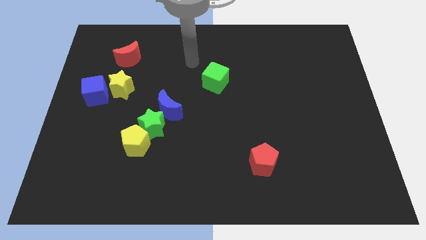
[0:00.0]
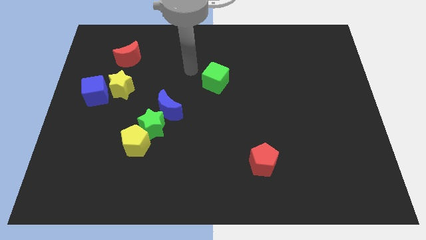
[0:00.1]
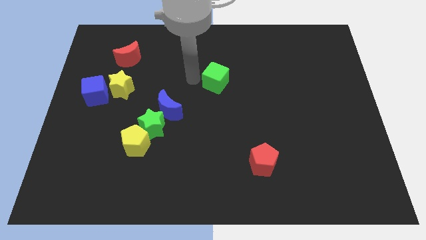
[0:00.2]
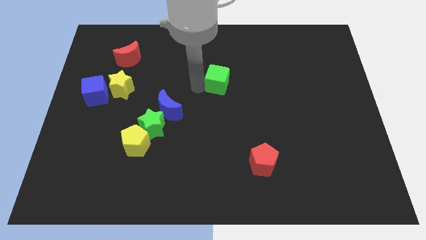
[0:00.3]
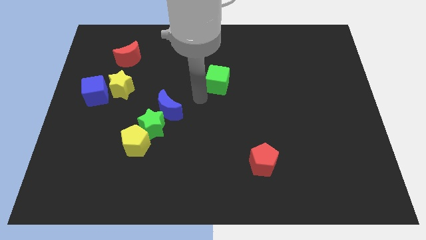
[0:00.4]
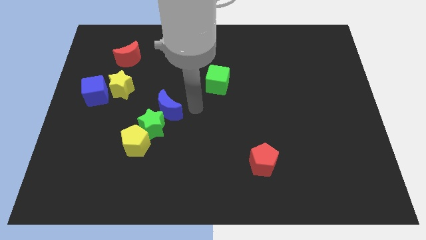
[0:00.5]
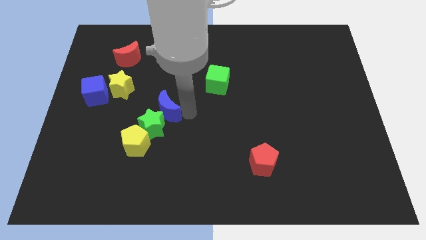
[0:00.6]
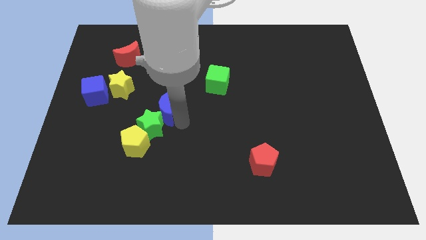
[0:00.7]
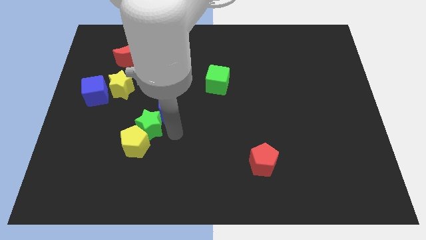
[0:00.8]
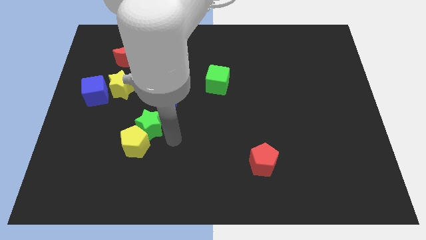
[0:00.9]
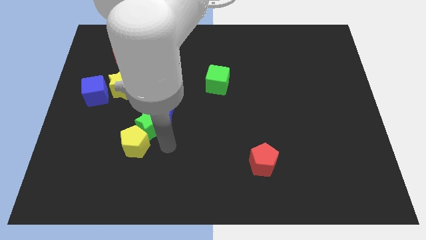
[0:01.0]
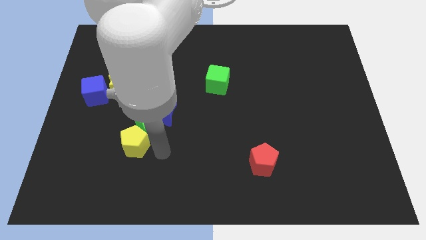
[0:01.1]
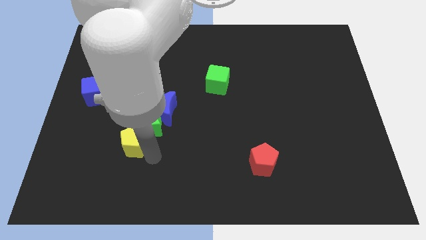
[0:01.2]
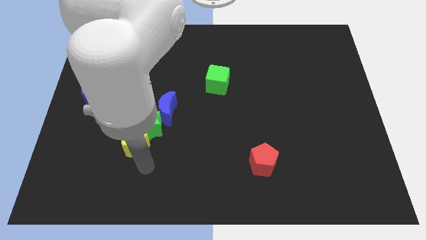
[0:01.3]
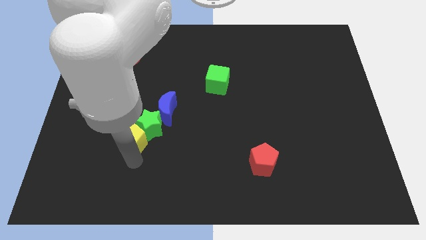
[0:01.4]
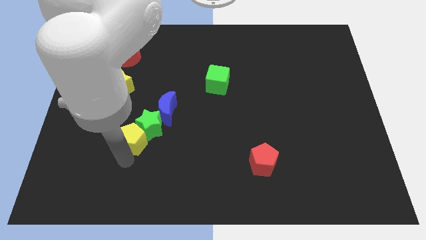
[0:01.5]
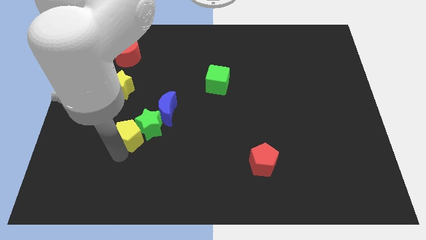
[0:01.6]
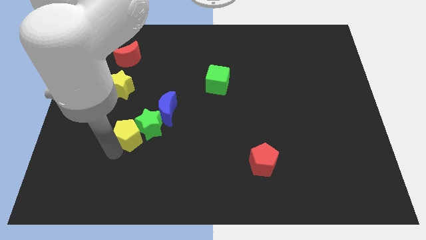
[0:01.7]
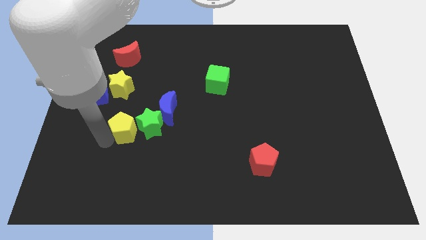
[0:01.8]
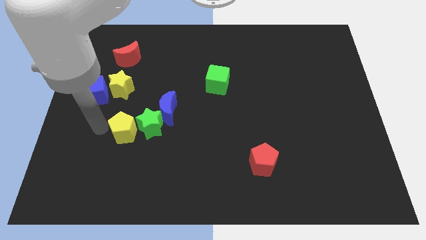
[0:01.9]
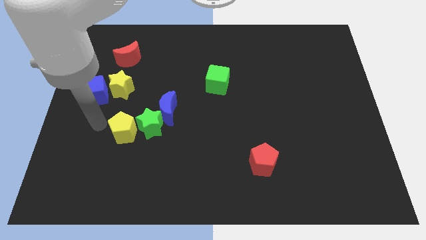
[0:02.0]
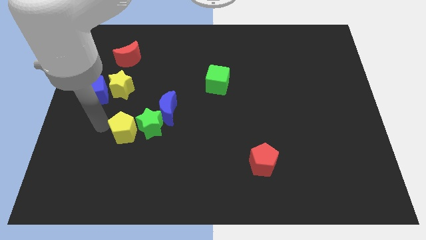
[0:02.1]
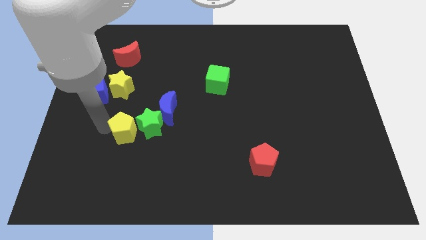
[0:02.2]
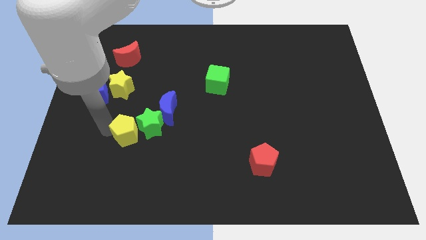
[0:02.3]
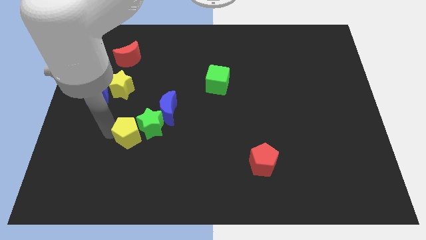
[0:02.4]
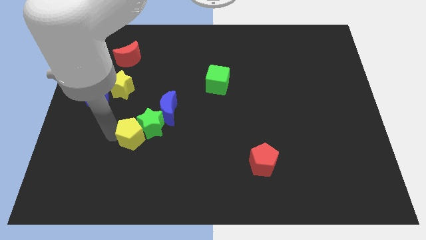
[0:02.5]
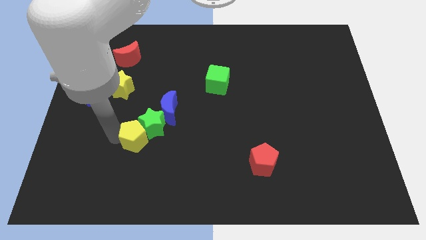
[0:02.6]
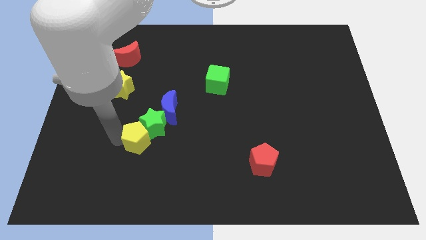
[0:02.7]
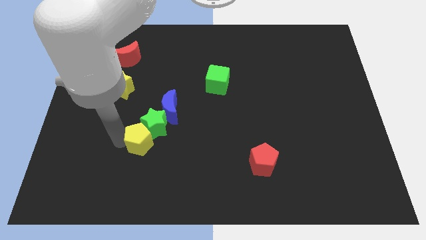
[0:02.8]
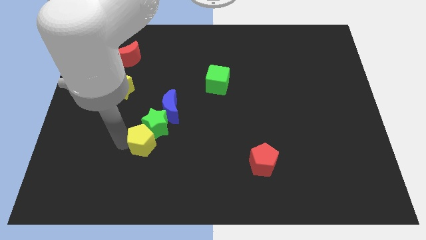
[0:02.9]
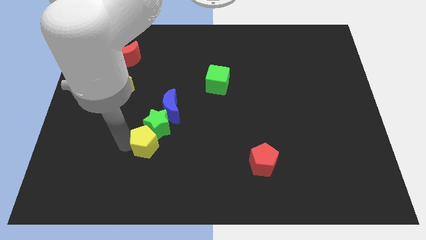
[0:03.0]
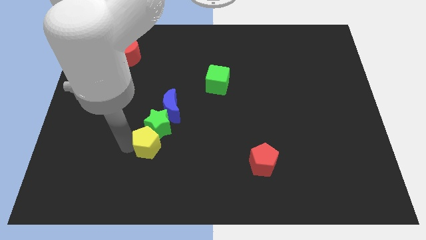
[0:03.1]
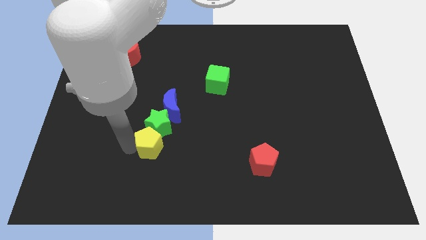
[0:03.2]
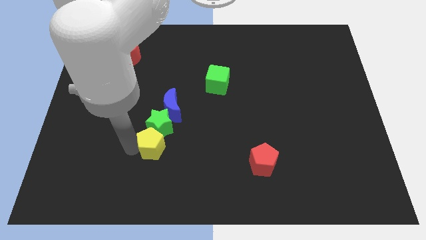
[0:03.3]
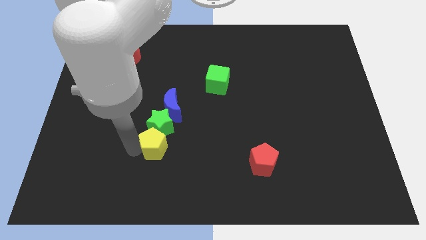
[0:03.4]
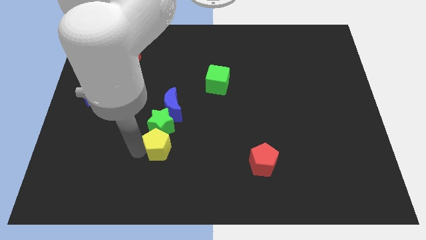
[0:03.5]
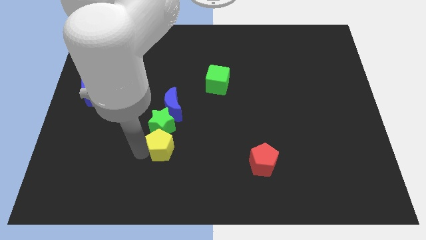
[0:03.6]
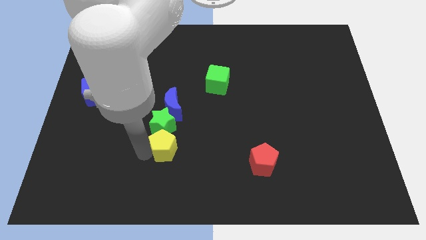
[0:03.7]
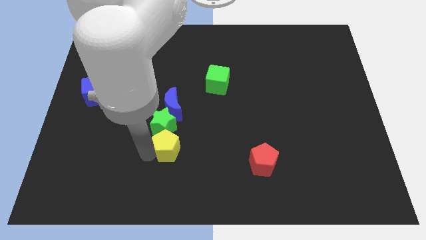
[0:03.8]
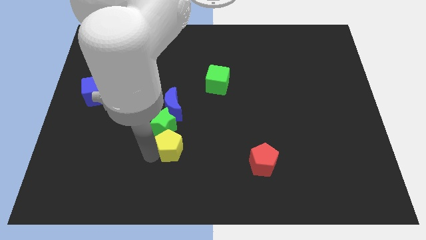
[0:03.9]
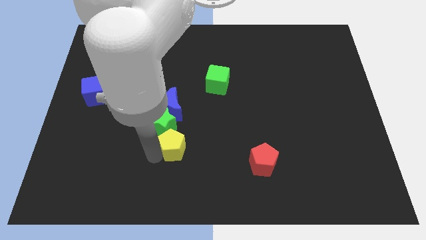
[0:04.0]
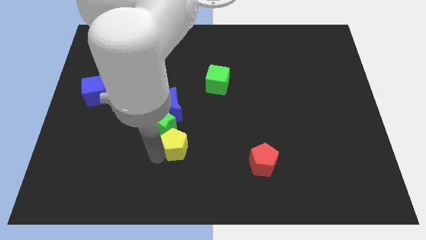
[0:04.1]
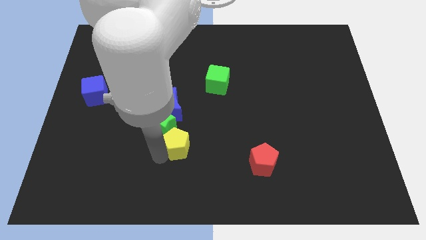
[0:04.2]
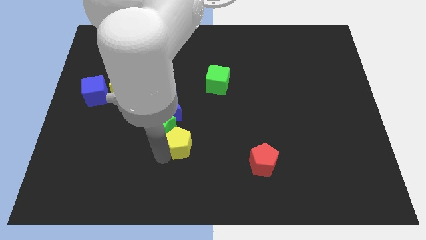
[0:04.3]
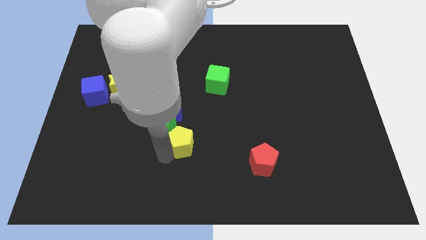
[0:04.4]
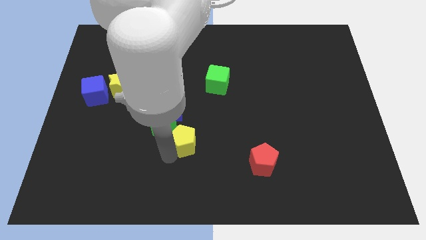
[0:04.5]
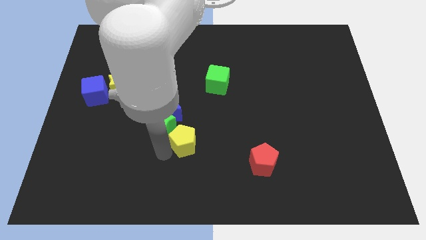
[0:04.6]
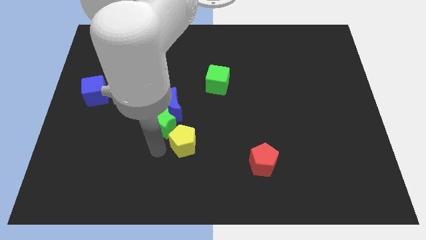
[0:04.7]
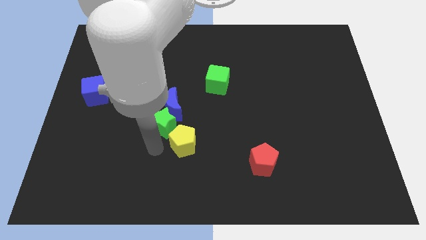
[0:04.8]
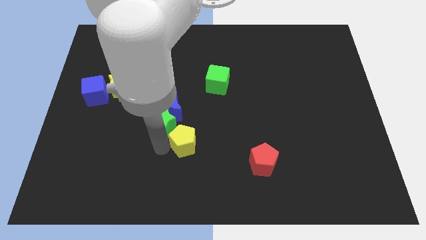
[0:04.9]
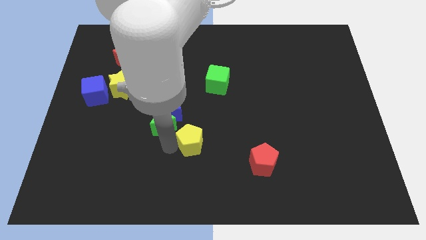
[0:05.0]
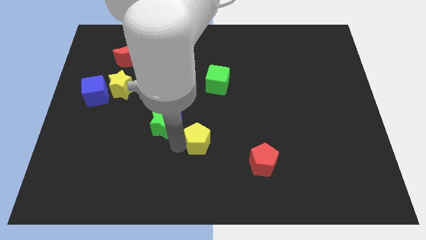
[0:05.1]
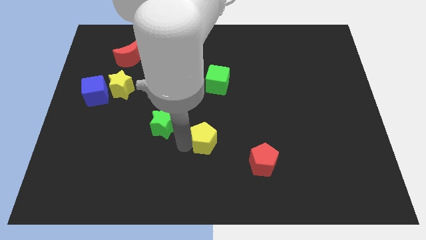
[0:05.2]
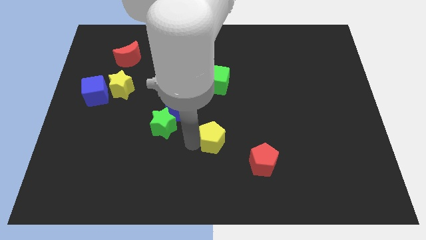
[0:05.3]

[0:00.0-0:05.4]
slide the yellow pentagon to the top left of the red pentagon

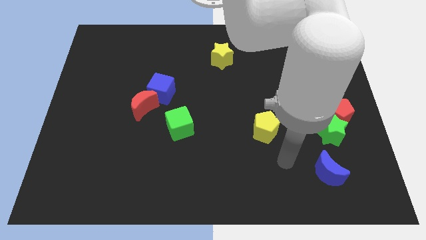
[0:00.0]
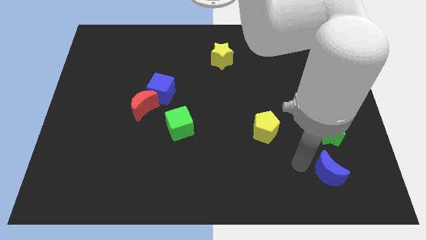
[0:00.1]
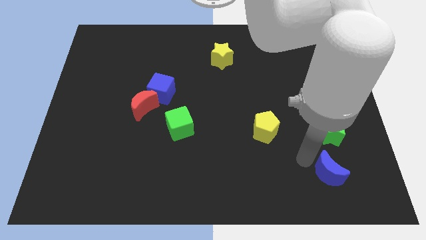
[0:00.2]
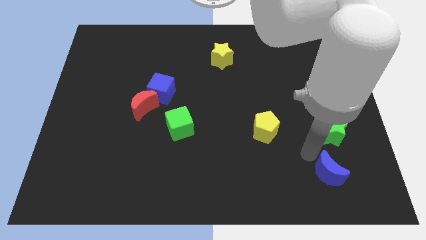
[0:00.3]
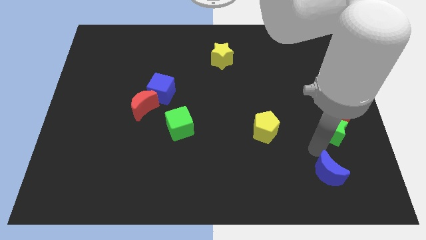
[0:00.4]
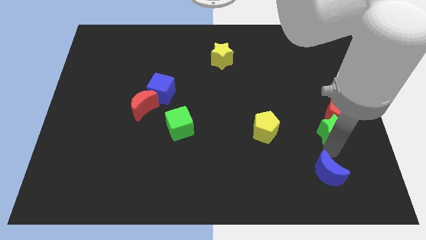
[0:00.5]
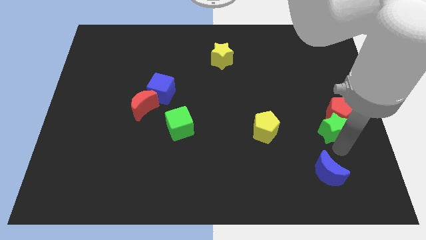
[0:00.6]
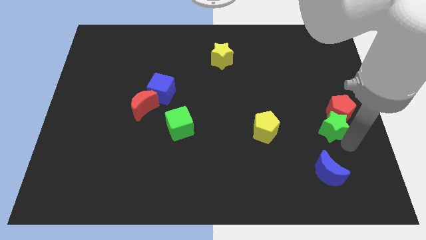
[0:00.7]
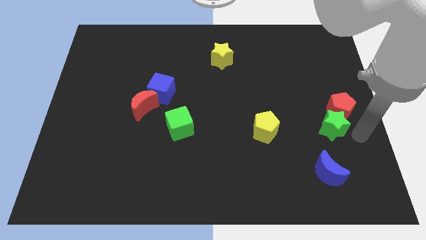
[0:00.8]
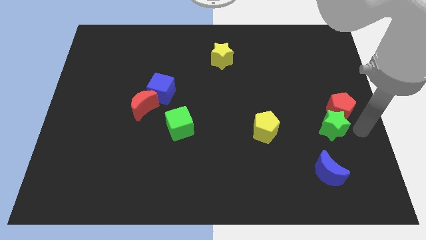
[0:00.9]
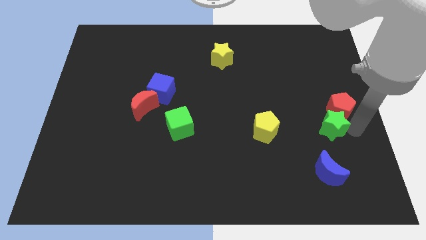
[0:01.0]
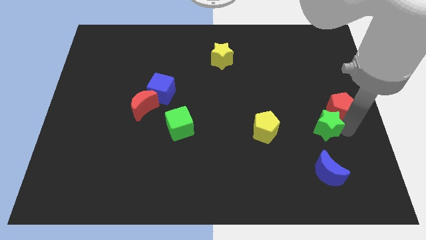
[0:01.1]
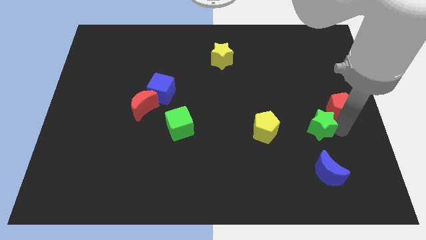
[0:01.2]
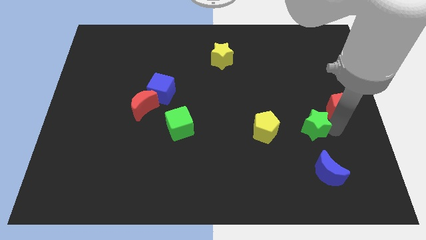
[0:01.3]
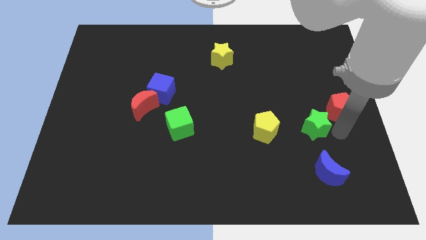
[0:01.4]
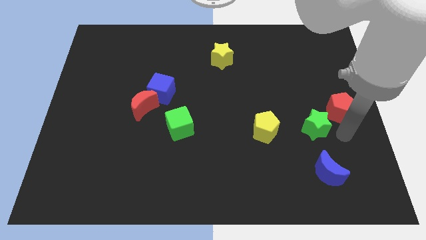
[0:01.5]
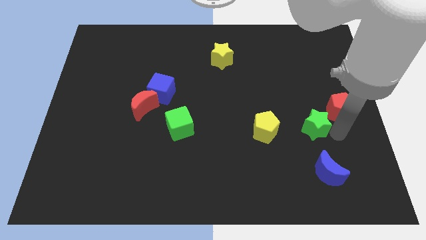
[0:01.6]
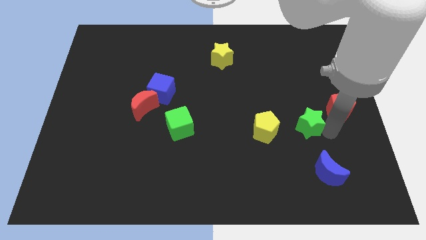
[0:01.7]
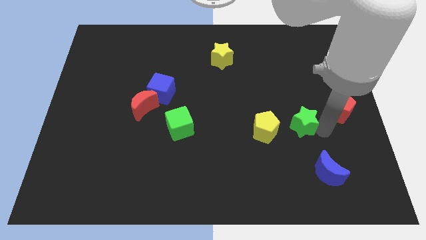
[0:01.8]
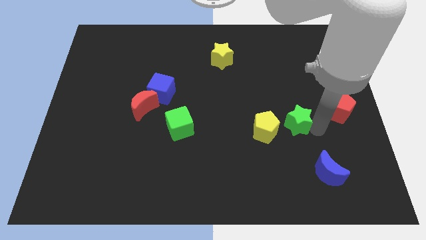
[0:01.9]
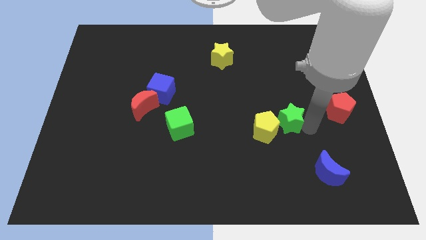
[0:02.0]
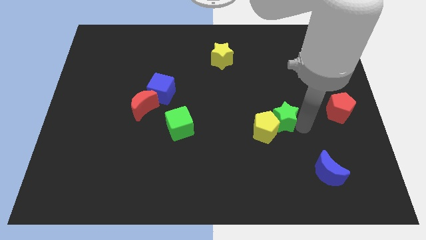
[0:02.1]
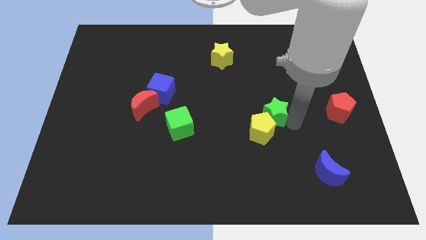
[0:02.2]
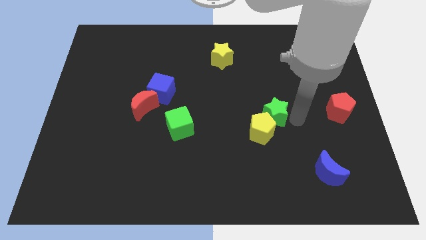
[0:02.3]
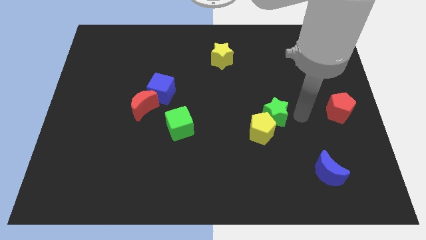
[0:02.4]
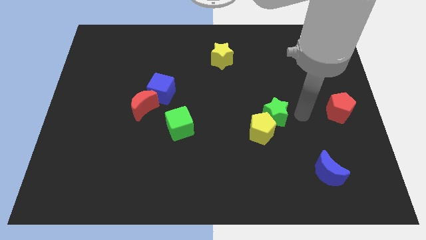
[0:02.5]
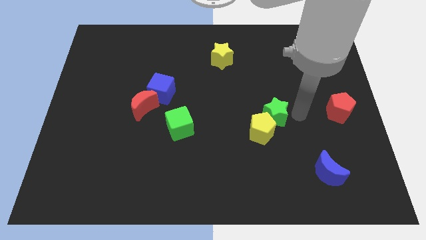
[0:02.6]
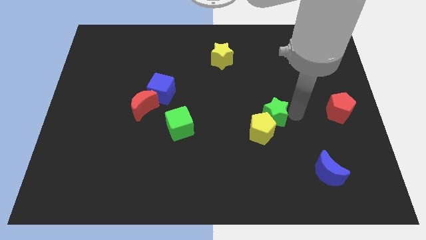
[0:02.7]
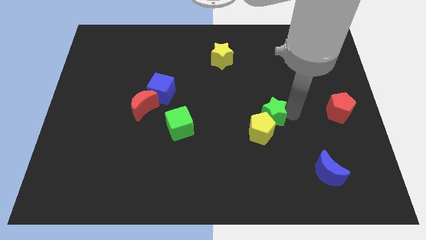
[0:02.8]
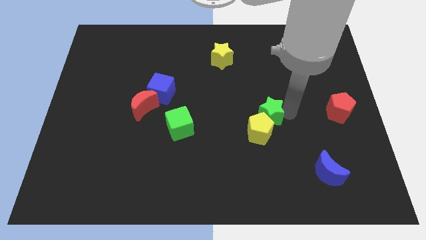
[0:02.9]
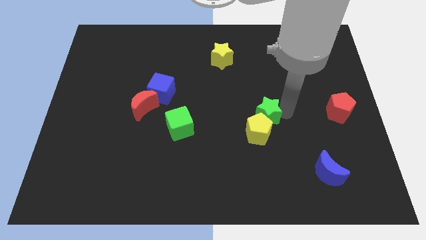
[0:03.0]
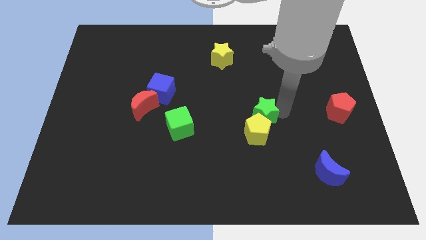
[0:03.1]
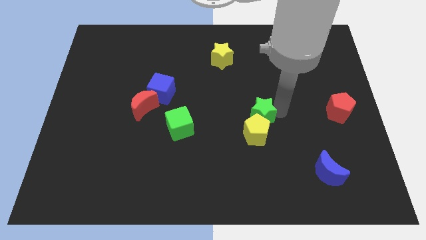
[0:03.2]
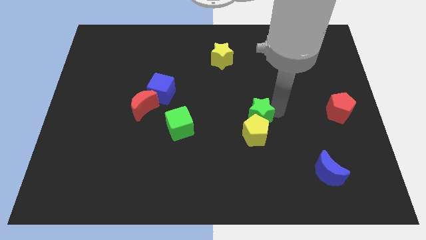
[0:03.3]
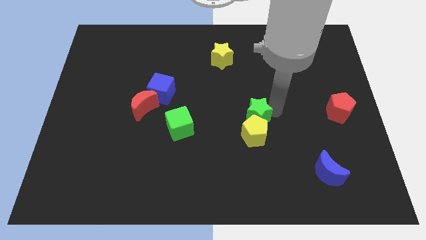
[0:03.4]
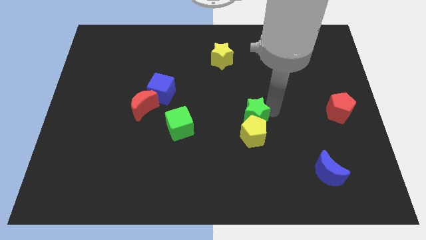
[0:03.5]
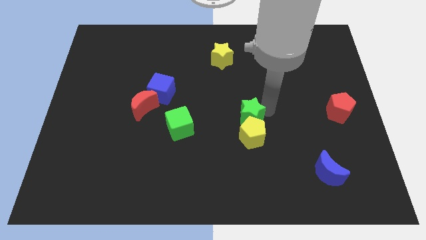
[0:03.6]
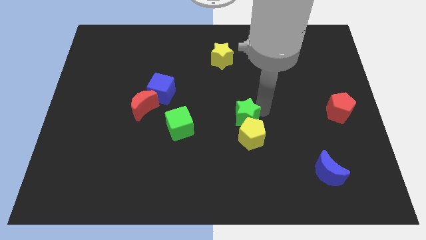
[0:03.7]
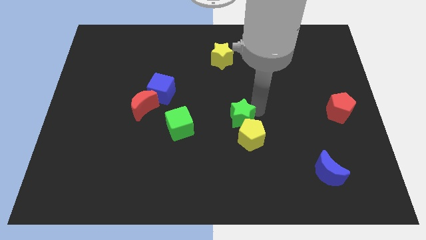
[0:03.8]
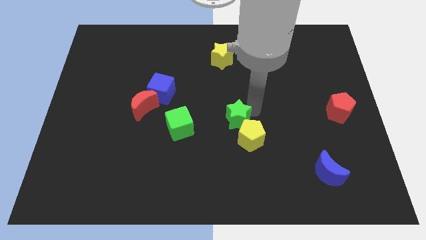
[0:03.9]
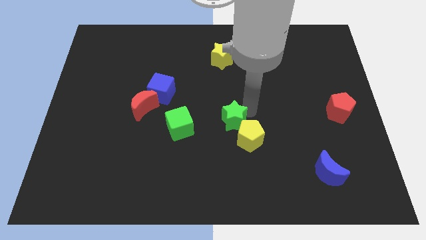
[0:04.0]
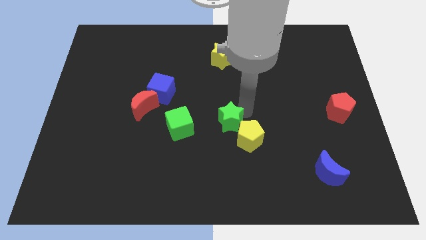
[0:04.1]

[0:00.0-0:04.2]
slide the green star just left of the yellow pentagon
